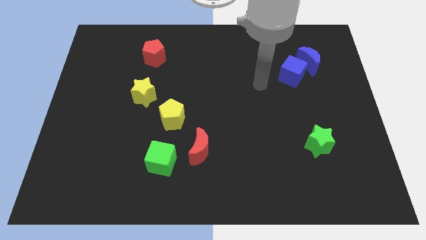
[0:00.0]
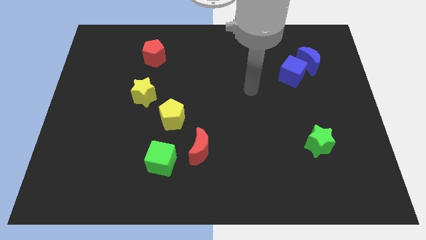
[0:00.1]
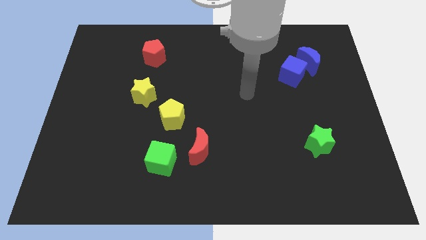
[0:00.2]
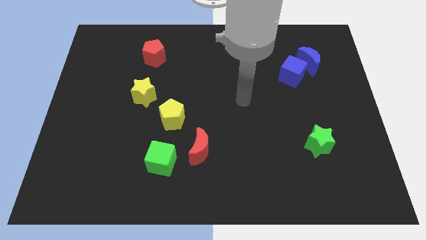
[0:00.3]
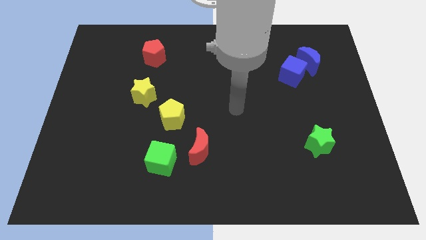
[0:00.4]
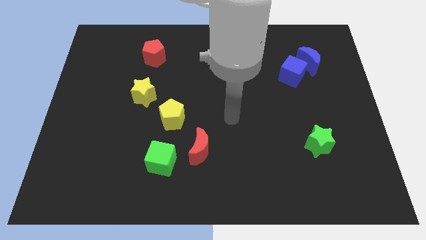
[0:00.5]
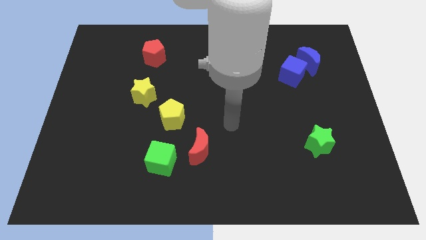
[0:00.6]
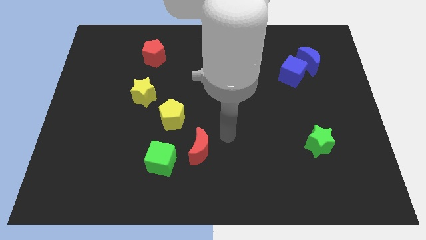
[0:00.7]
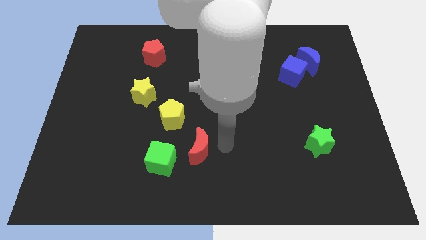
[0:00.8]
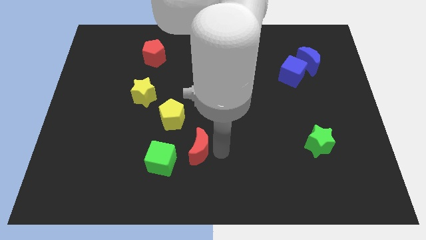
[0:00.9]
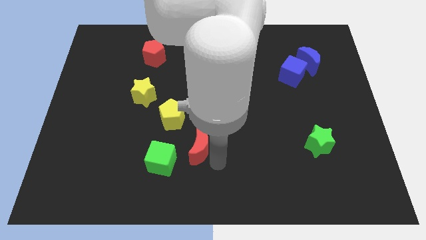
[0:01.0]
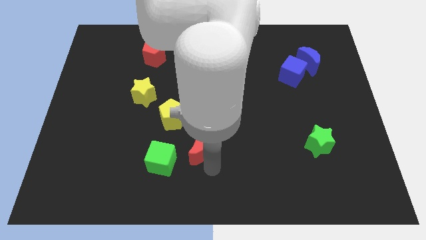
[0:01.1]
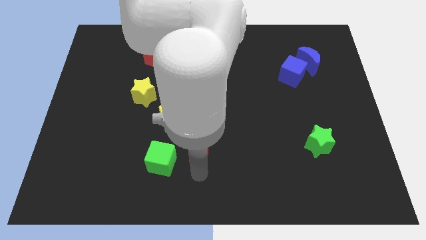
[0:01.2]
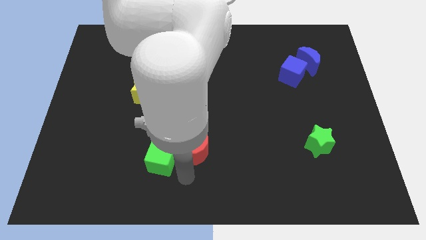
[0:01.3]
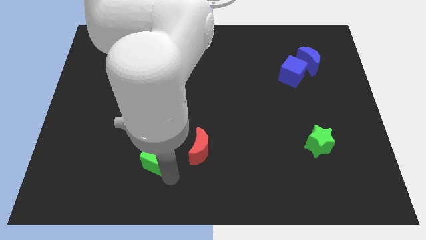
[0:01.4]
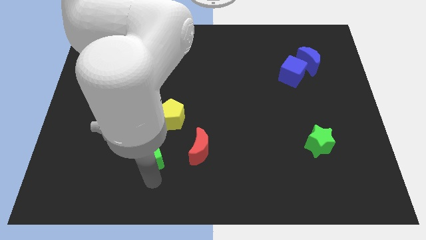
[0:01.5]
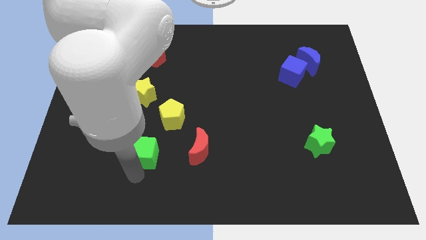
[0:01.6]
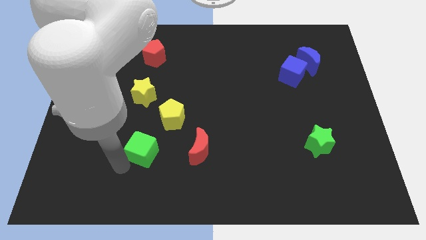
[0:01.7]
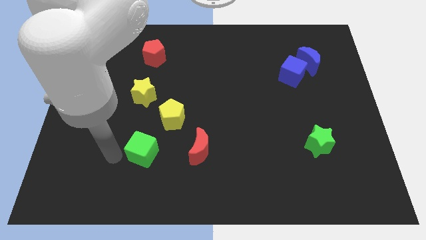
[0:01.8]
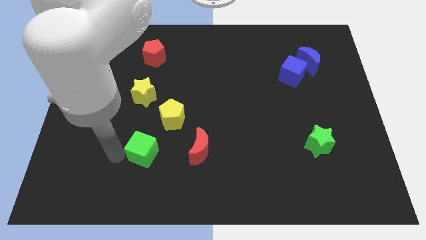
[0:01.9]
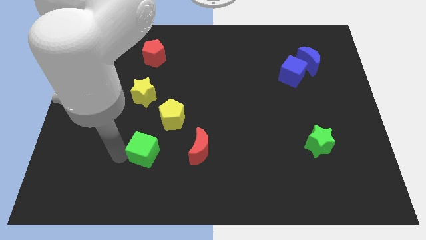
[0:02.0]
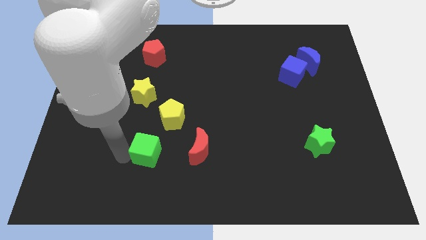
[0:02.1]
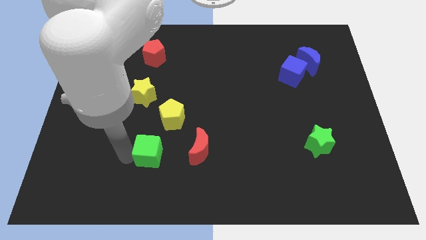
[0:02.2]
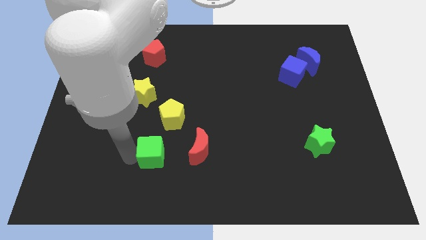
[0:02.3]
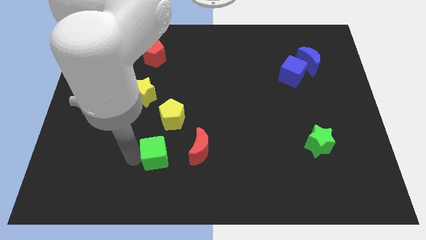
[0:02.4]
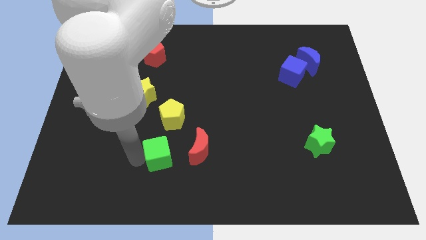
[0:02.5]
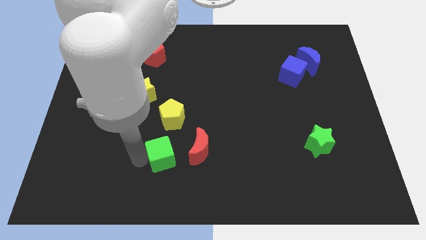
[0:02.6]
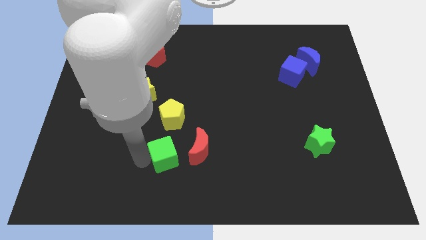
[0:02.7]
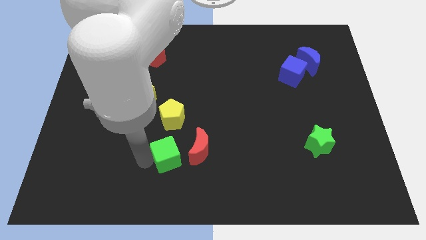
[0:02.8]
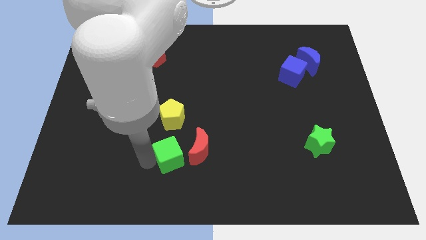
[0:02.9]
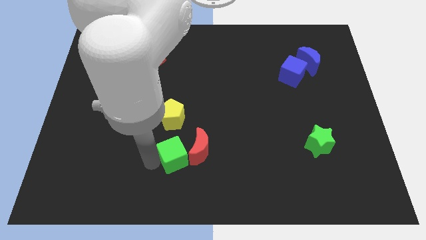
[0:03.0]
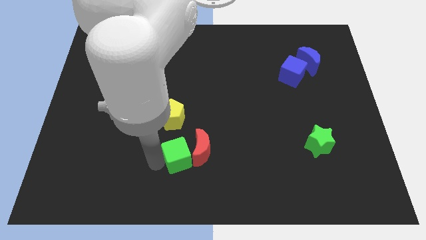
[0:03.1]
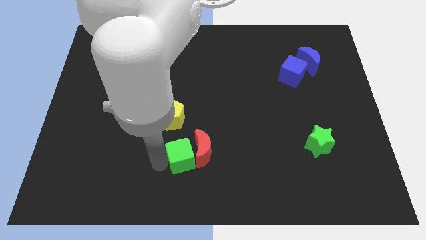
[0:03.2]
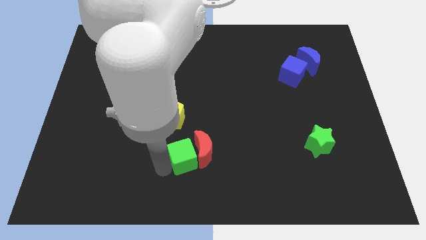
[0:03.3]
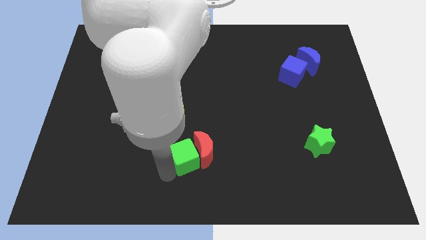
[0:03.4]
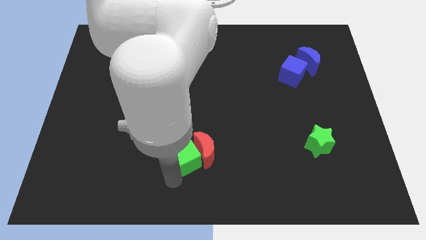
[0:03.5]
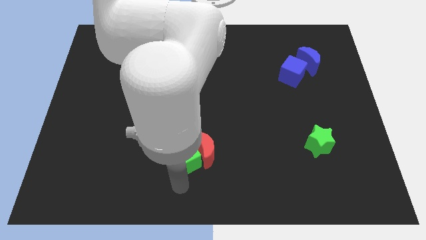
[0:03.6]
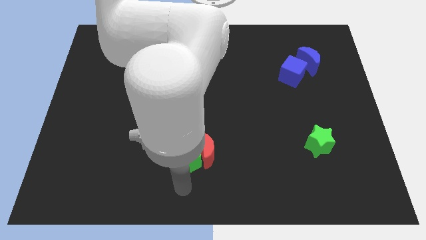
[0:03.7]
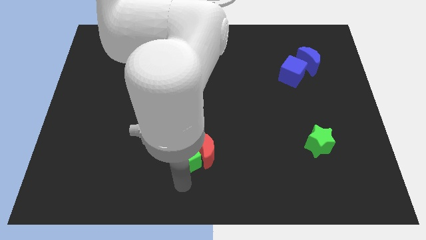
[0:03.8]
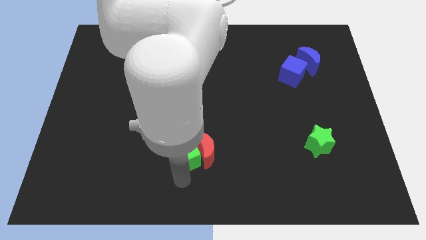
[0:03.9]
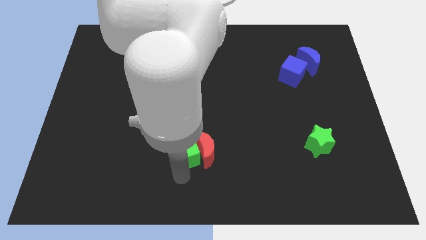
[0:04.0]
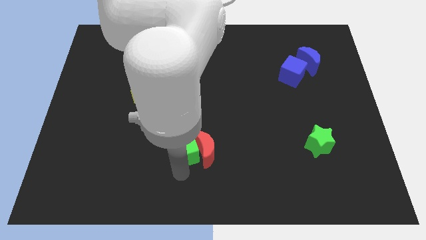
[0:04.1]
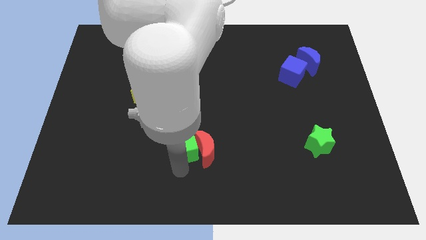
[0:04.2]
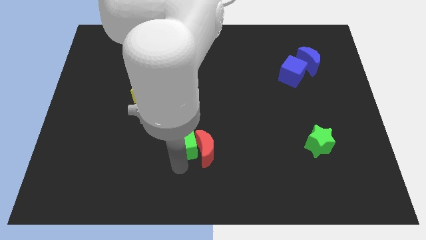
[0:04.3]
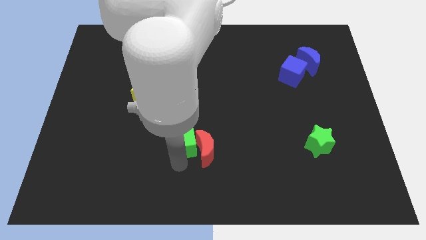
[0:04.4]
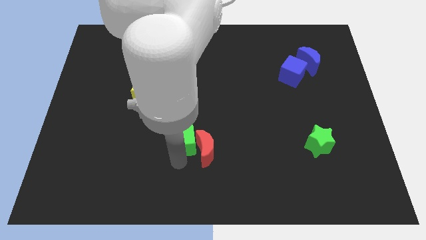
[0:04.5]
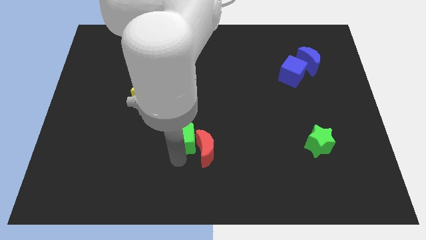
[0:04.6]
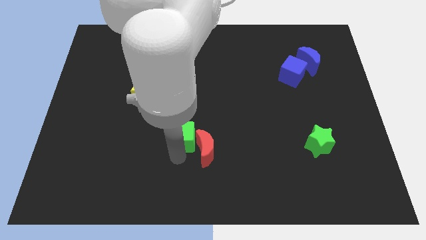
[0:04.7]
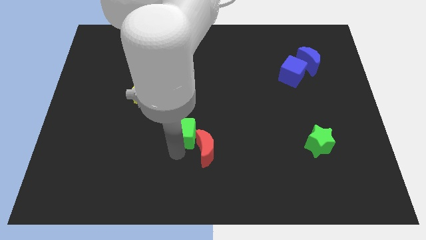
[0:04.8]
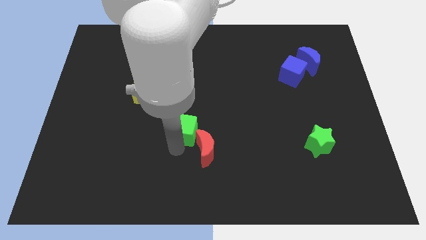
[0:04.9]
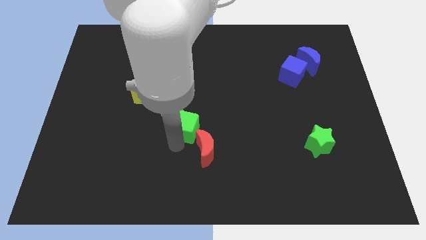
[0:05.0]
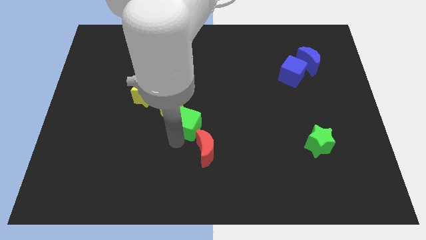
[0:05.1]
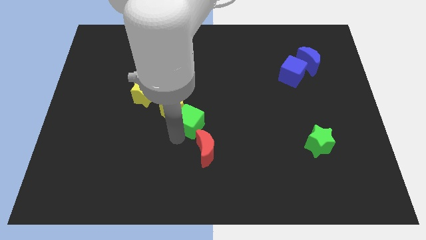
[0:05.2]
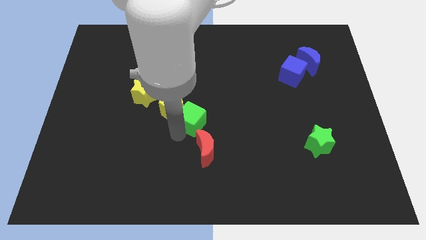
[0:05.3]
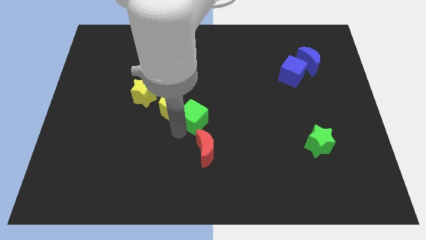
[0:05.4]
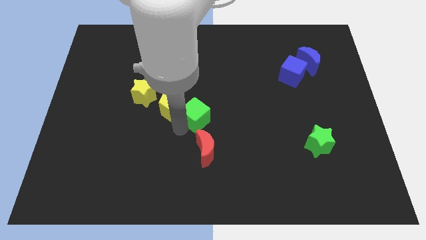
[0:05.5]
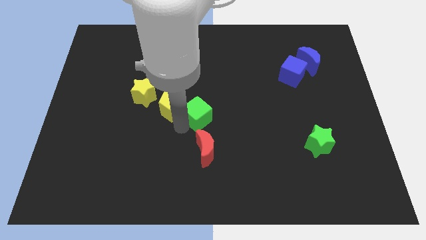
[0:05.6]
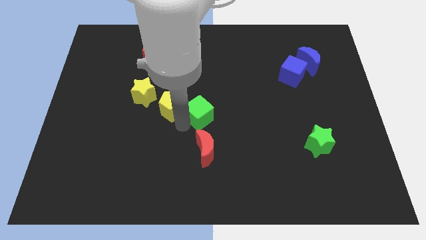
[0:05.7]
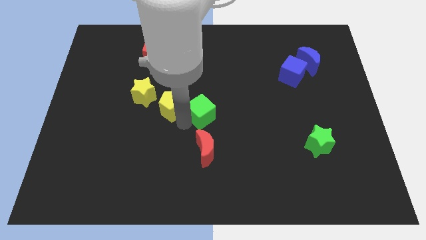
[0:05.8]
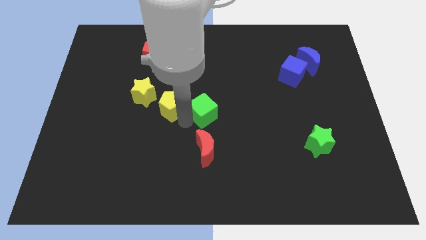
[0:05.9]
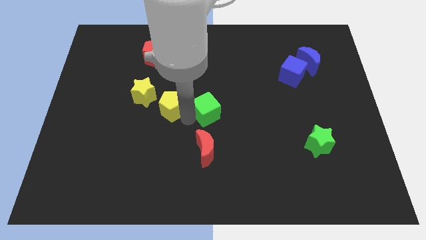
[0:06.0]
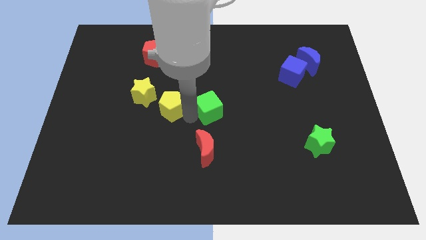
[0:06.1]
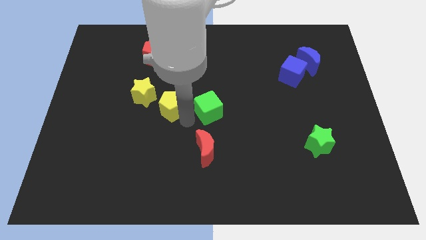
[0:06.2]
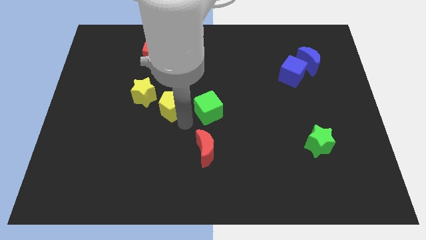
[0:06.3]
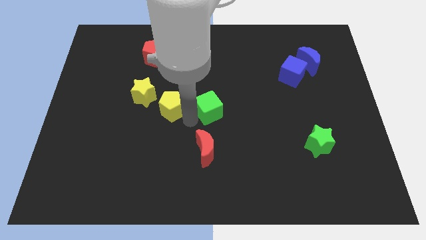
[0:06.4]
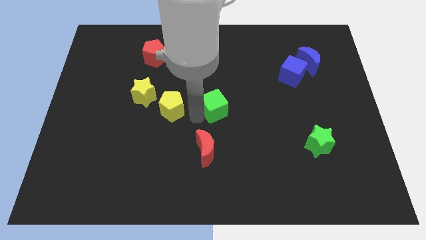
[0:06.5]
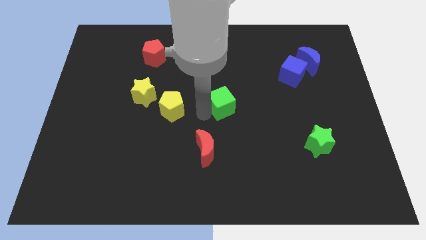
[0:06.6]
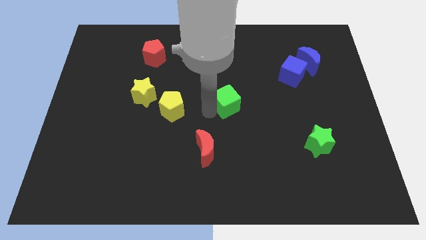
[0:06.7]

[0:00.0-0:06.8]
move the green cube upwards and right

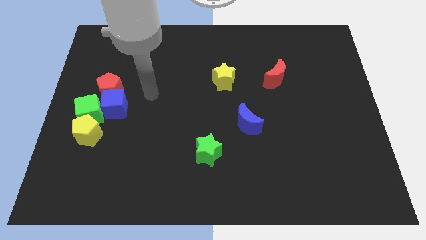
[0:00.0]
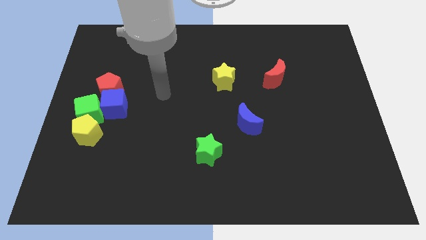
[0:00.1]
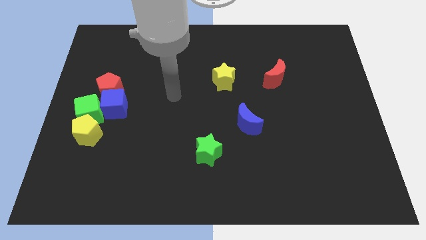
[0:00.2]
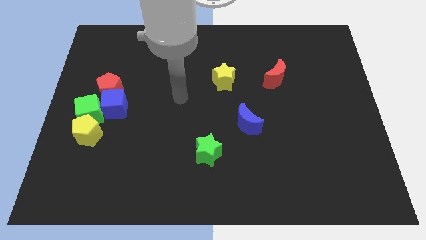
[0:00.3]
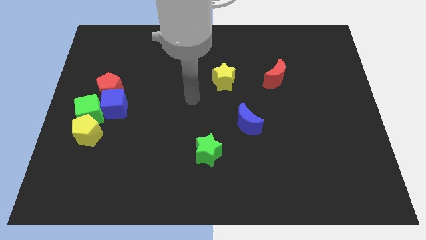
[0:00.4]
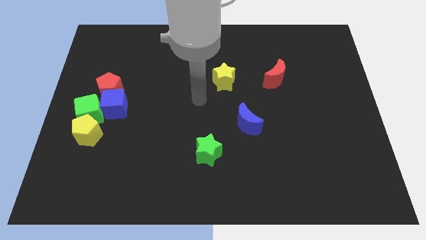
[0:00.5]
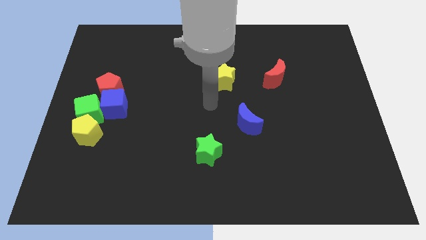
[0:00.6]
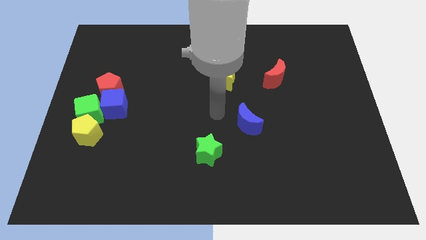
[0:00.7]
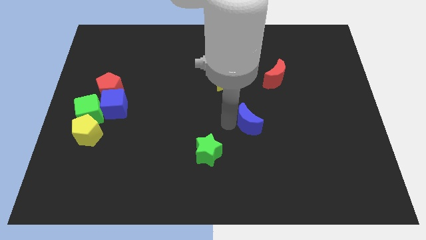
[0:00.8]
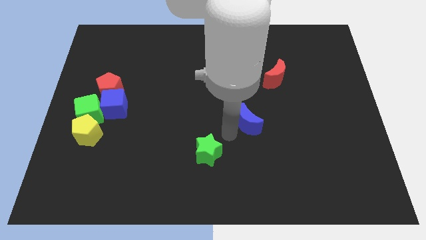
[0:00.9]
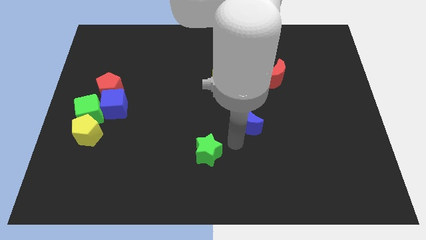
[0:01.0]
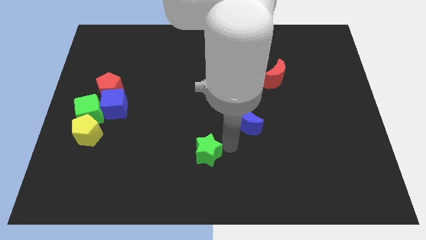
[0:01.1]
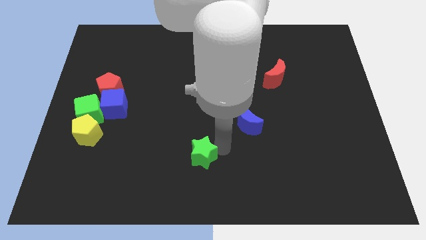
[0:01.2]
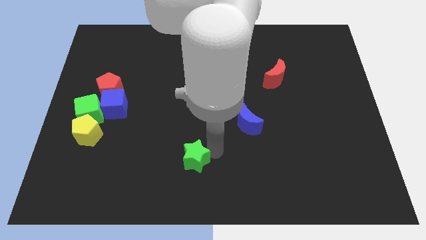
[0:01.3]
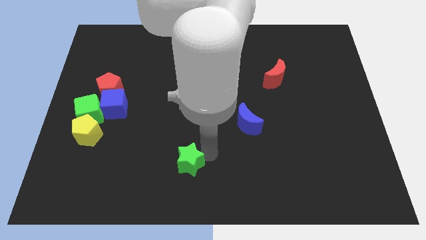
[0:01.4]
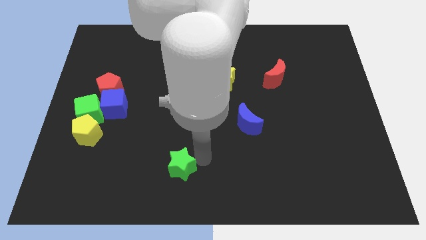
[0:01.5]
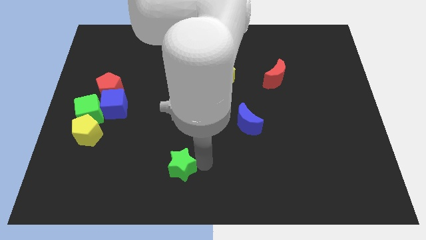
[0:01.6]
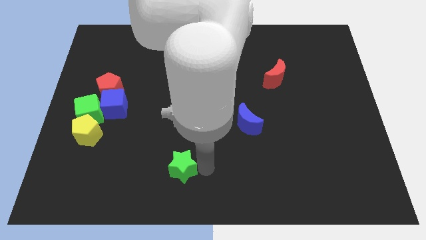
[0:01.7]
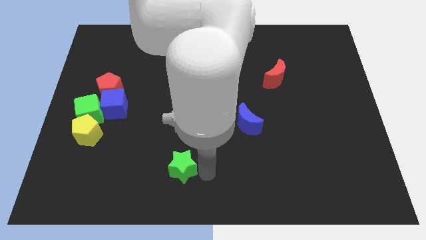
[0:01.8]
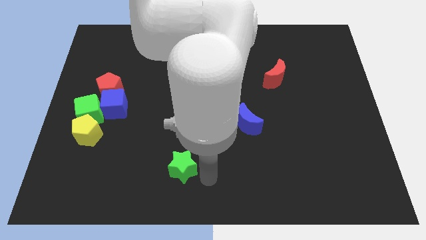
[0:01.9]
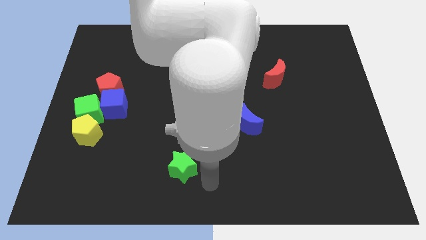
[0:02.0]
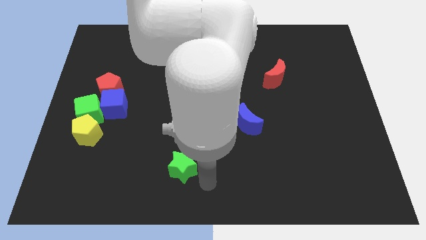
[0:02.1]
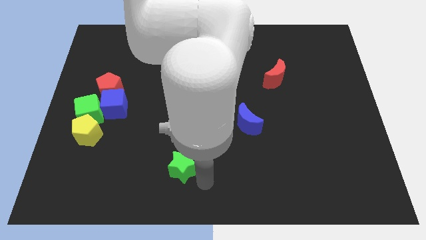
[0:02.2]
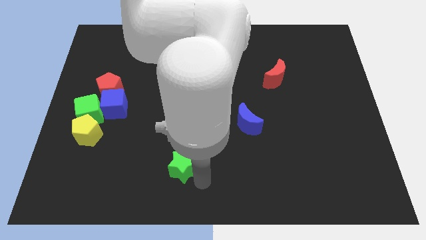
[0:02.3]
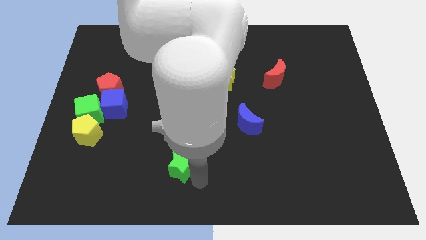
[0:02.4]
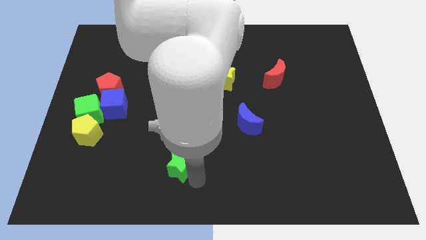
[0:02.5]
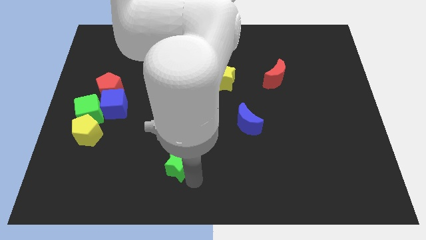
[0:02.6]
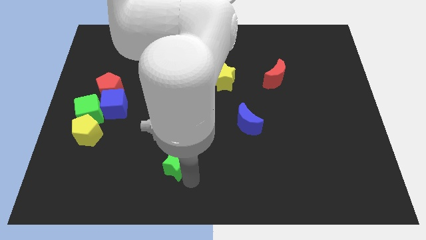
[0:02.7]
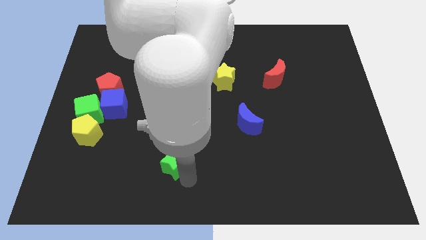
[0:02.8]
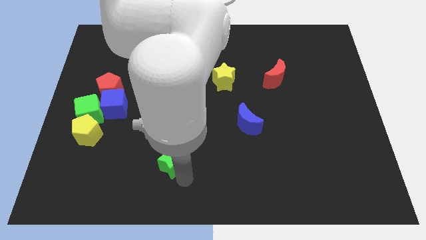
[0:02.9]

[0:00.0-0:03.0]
move the green star slightly left
